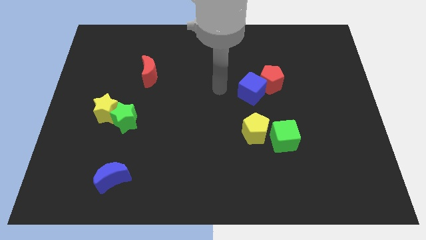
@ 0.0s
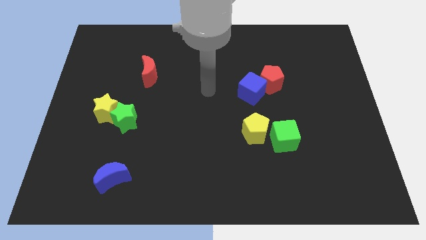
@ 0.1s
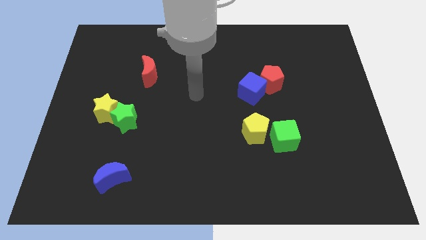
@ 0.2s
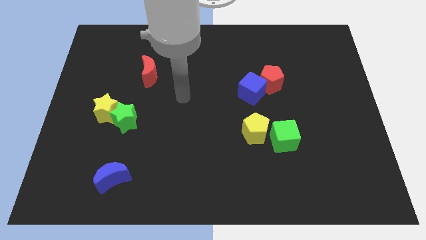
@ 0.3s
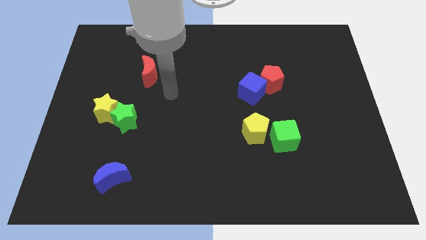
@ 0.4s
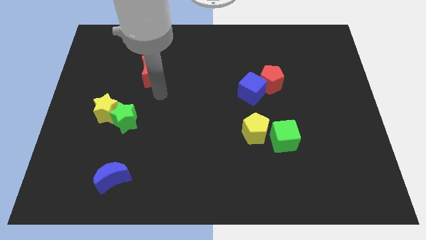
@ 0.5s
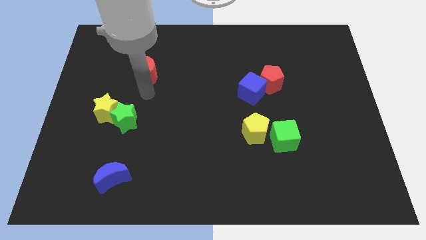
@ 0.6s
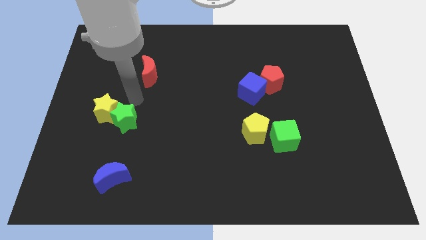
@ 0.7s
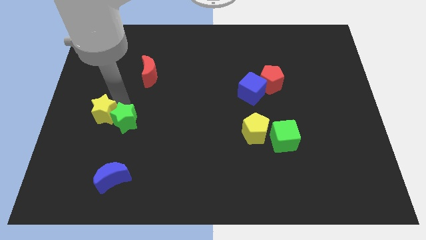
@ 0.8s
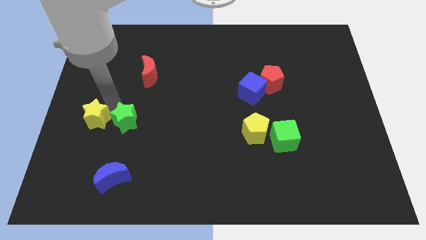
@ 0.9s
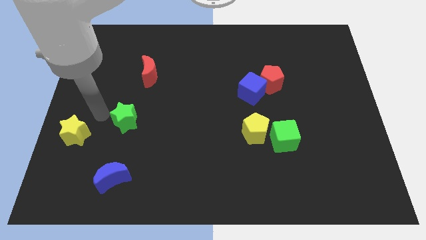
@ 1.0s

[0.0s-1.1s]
pull the green star apart from the yellow star

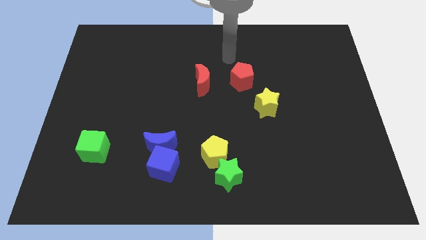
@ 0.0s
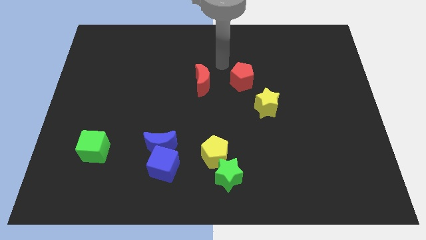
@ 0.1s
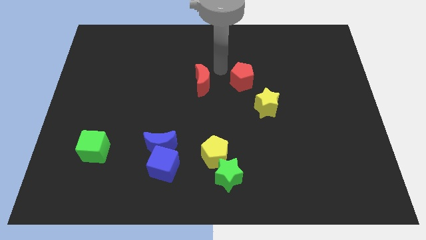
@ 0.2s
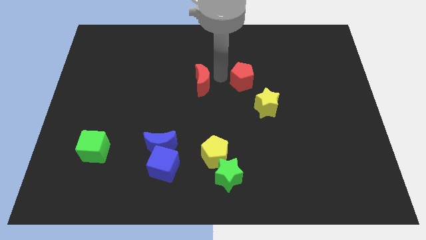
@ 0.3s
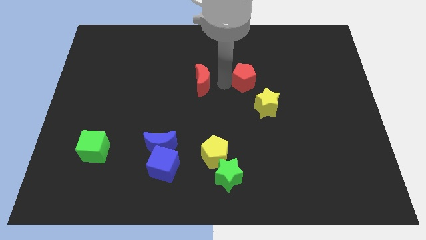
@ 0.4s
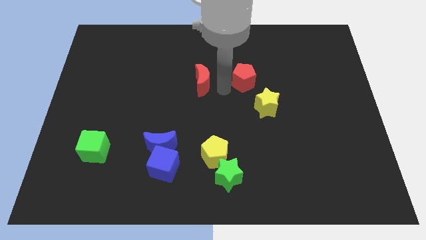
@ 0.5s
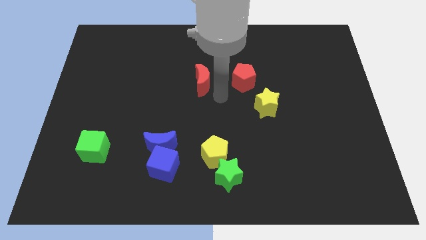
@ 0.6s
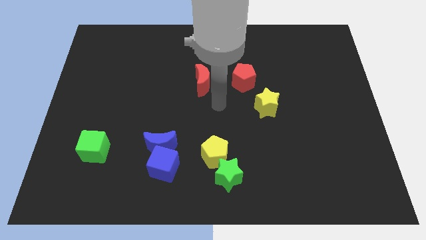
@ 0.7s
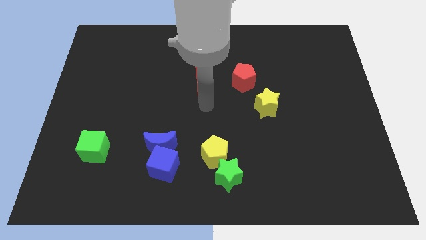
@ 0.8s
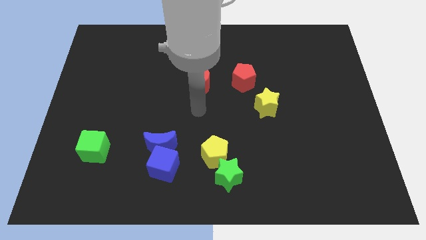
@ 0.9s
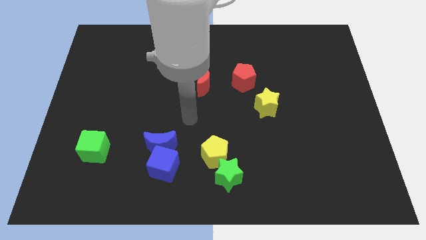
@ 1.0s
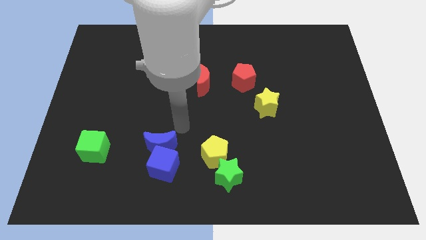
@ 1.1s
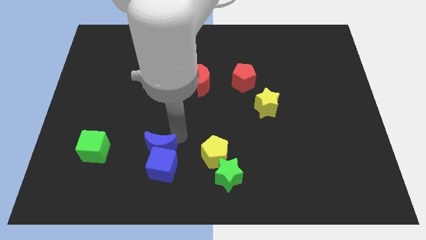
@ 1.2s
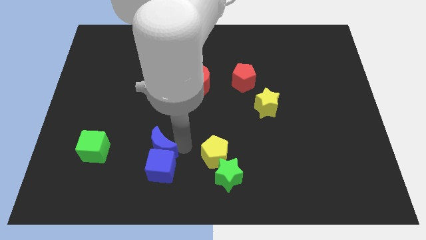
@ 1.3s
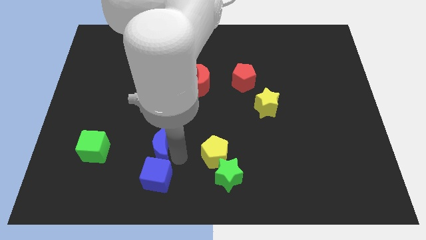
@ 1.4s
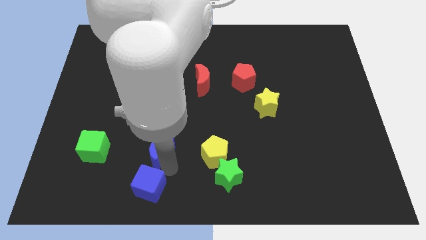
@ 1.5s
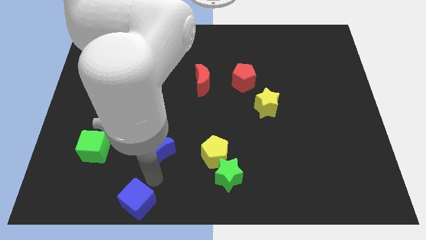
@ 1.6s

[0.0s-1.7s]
separate the blue moon from the blue cube

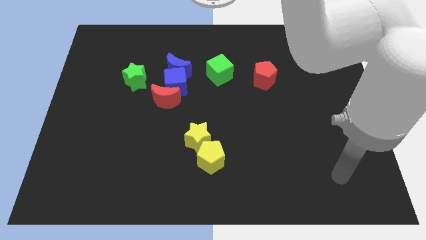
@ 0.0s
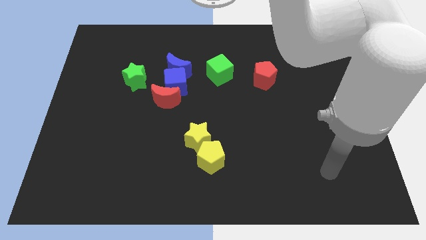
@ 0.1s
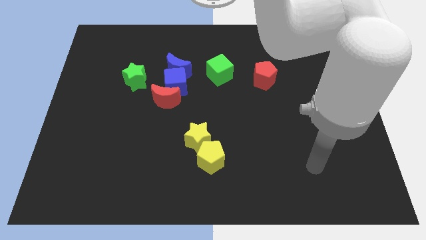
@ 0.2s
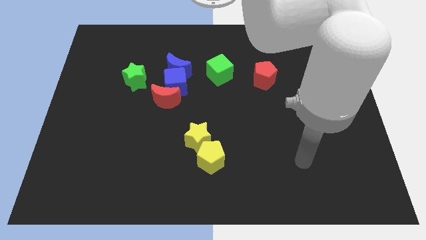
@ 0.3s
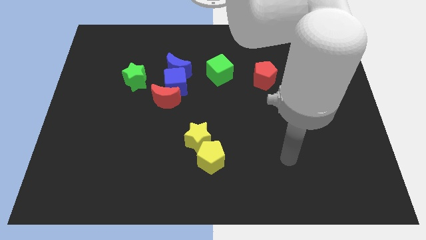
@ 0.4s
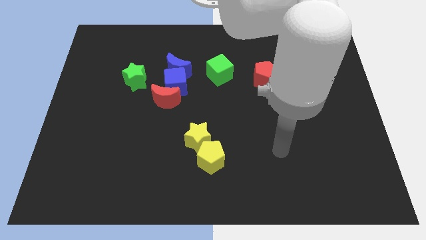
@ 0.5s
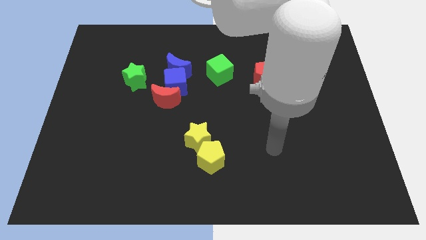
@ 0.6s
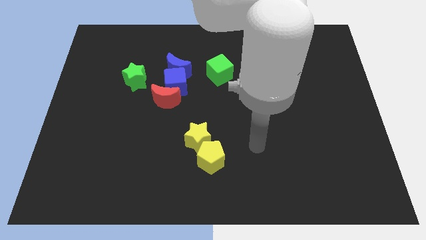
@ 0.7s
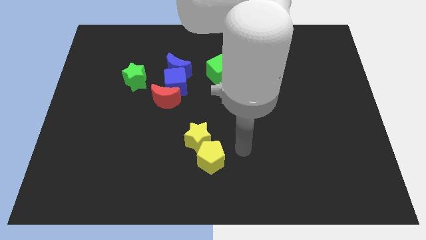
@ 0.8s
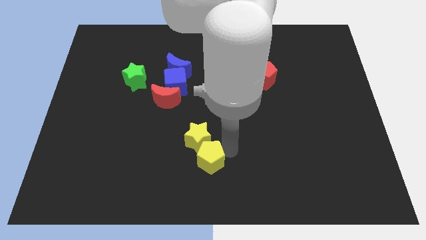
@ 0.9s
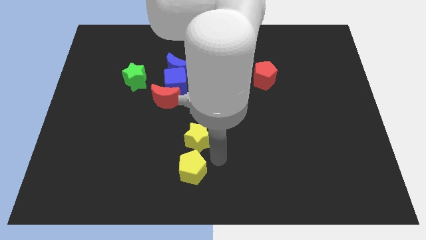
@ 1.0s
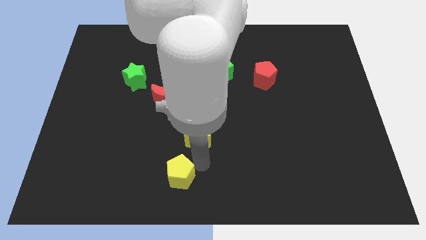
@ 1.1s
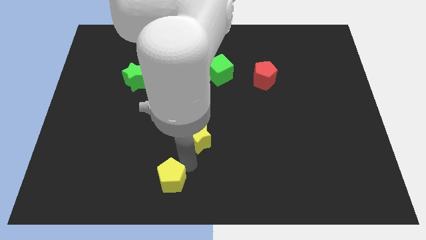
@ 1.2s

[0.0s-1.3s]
pull the yellow star apart from the yellow pentagon

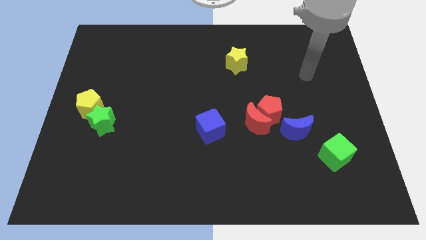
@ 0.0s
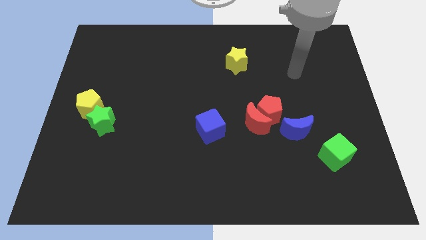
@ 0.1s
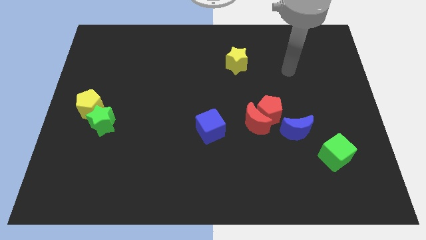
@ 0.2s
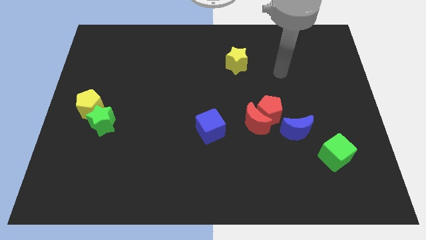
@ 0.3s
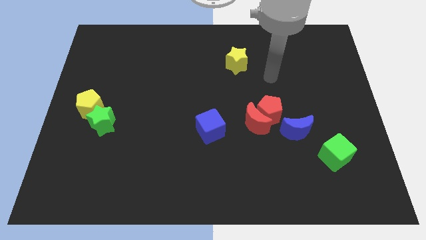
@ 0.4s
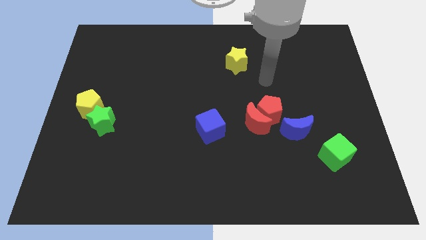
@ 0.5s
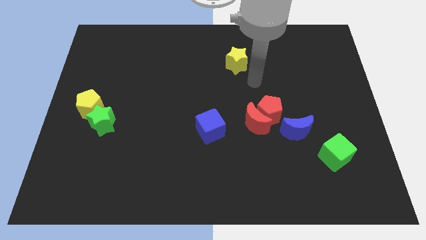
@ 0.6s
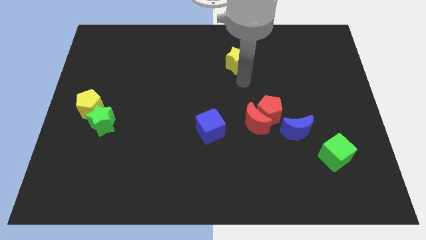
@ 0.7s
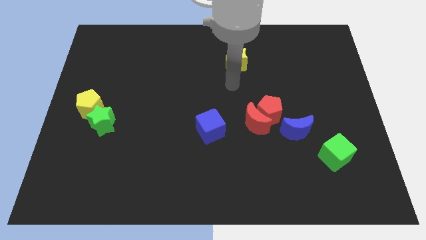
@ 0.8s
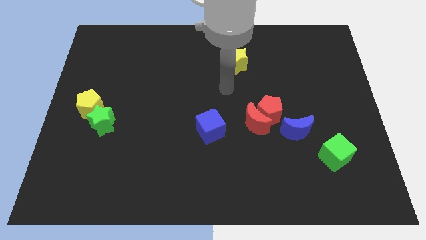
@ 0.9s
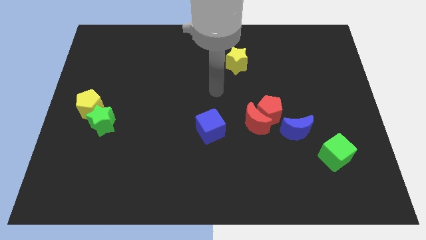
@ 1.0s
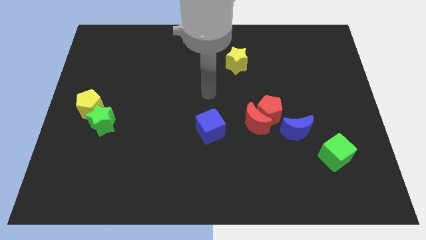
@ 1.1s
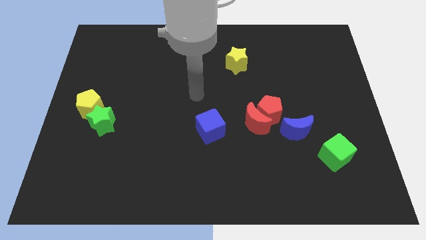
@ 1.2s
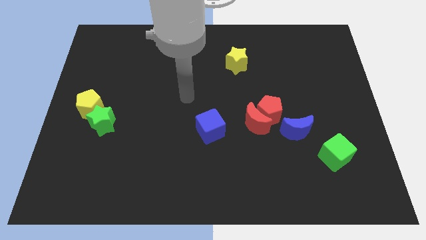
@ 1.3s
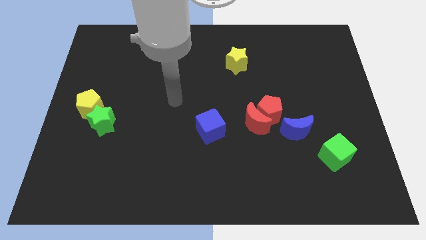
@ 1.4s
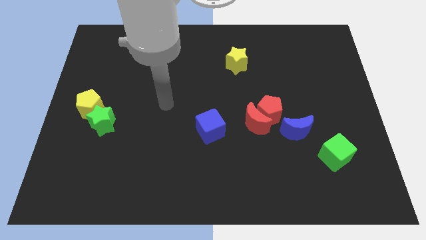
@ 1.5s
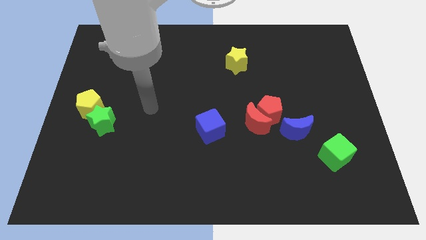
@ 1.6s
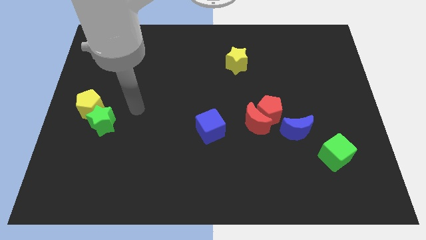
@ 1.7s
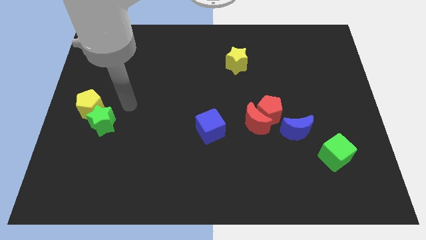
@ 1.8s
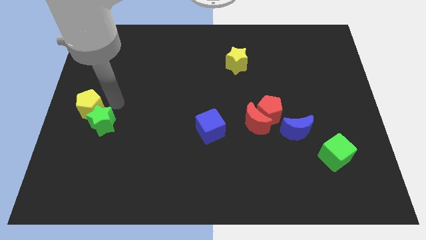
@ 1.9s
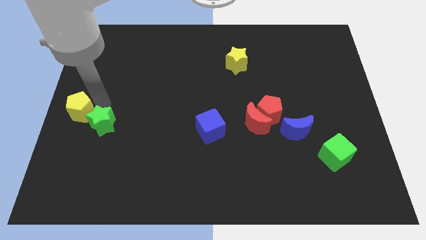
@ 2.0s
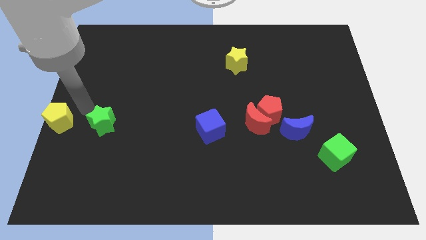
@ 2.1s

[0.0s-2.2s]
pull the green star apart from the yellow pentagon

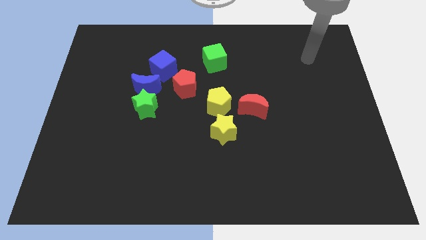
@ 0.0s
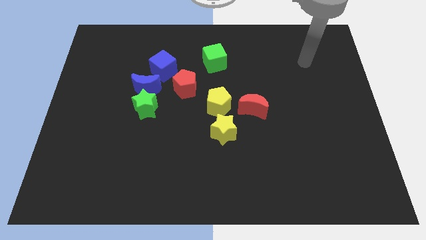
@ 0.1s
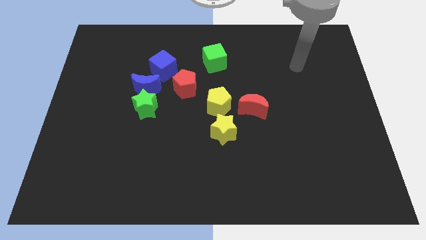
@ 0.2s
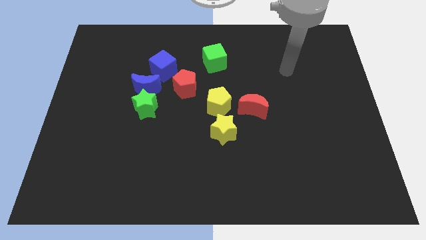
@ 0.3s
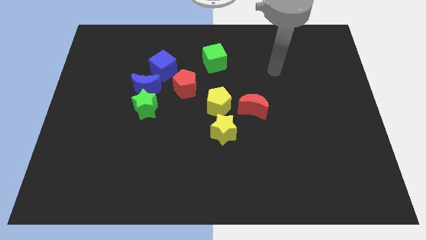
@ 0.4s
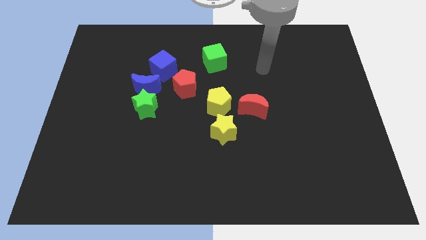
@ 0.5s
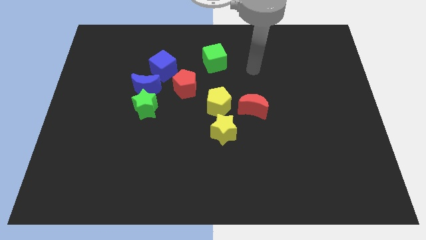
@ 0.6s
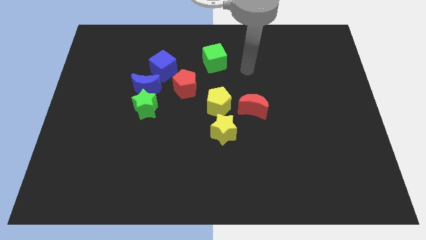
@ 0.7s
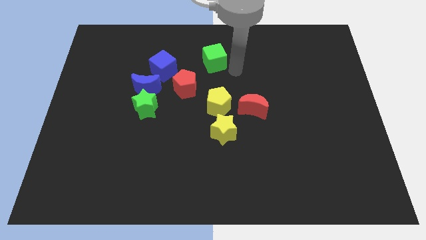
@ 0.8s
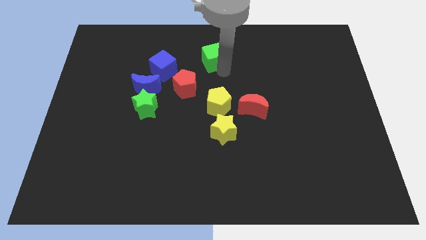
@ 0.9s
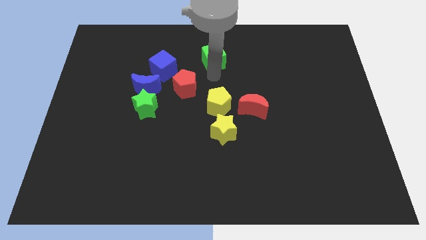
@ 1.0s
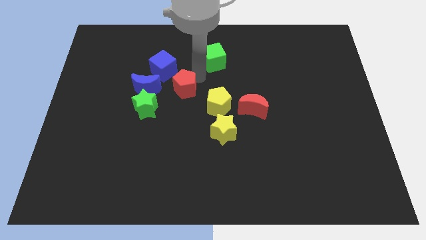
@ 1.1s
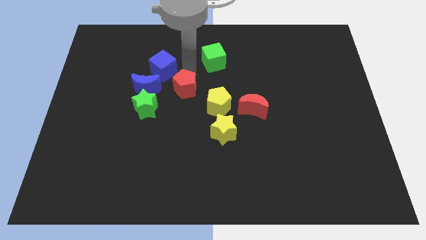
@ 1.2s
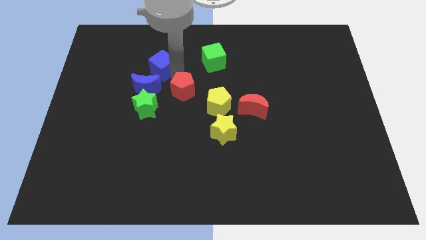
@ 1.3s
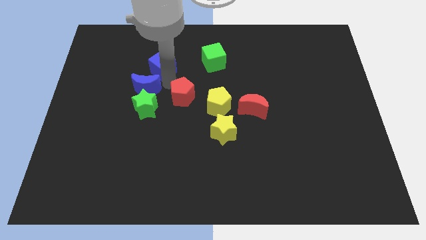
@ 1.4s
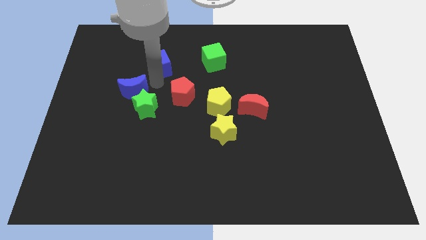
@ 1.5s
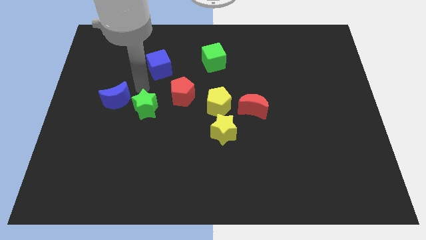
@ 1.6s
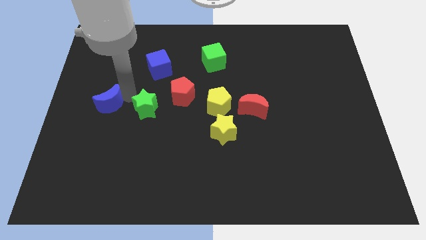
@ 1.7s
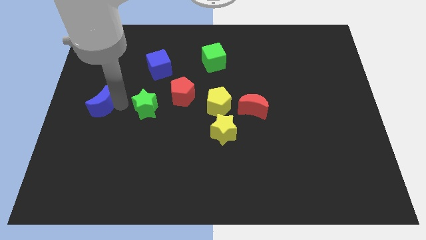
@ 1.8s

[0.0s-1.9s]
move the green star away from the blue moon

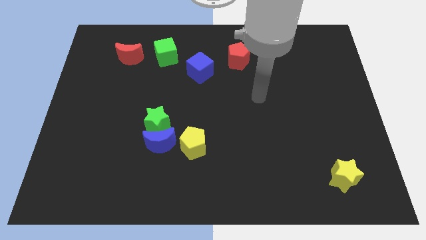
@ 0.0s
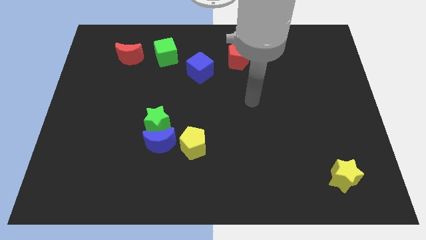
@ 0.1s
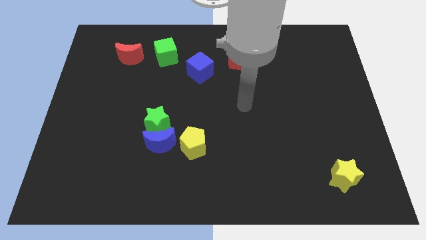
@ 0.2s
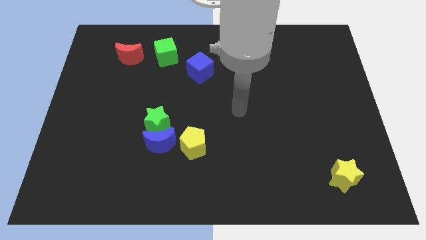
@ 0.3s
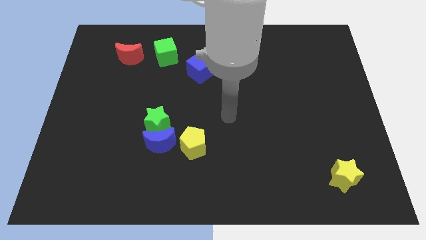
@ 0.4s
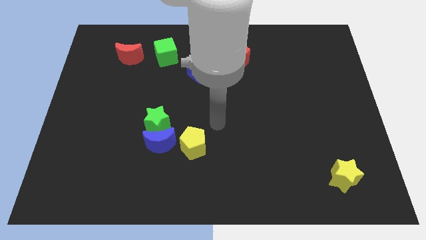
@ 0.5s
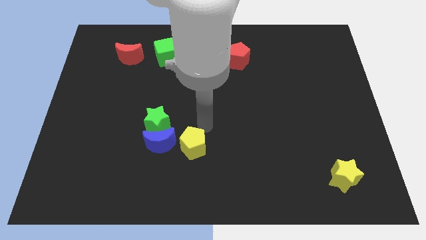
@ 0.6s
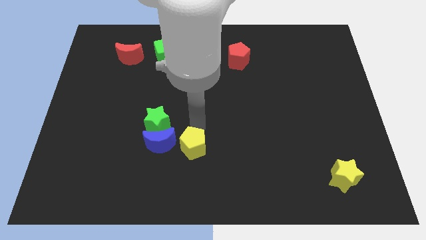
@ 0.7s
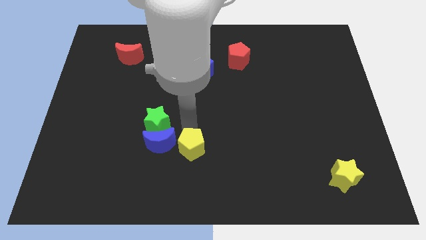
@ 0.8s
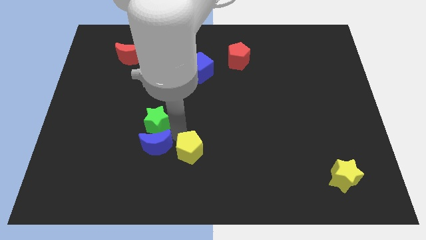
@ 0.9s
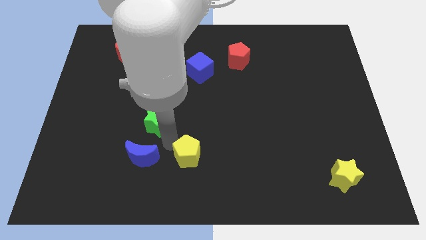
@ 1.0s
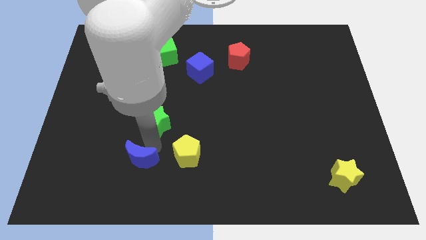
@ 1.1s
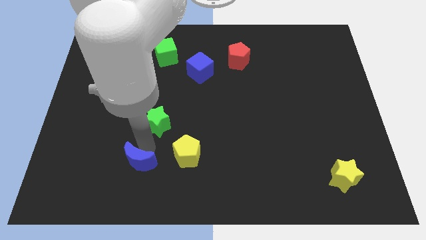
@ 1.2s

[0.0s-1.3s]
separate the green star from the blue moon
